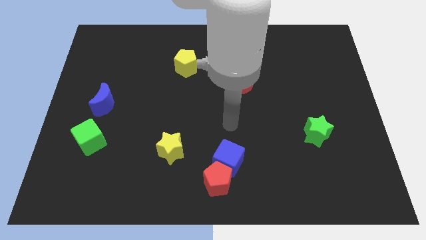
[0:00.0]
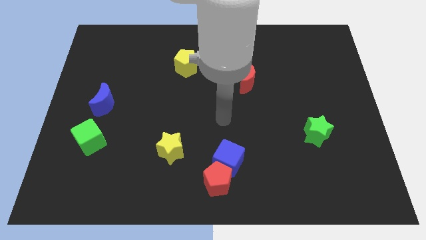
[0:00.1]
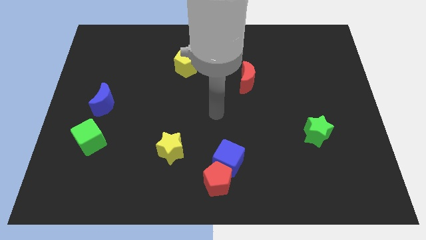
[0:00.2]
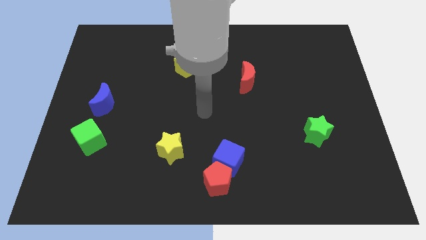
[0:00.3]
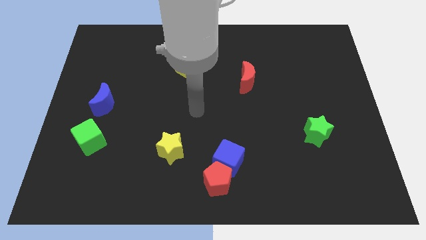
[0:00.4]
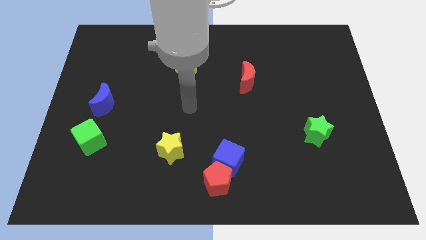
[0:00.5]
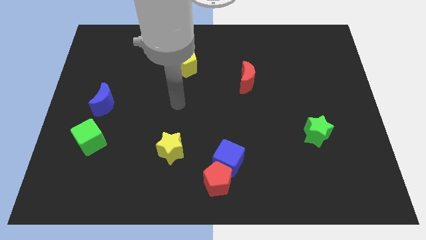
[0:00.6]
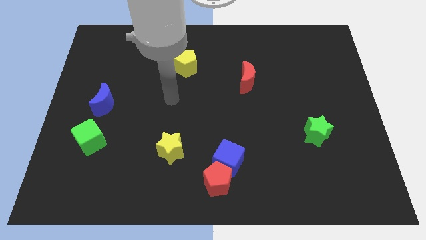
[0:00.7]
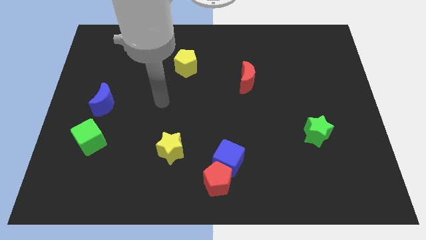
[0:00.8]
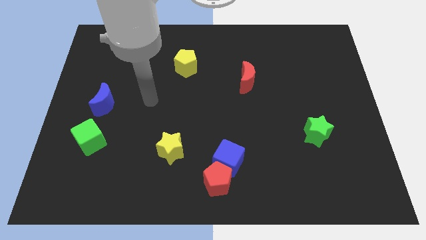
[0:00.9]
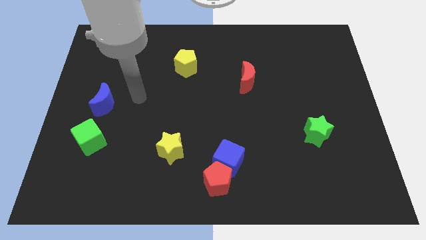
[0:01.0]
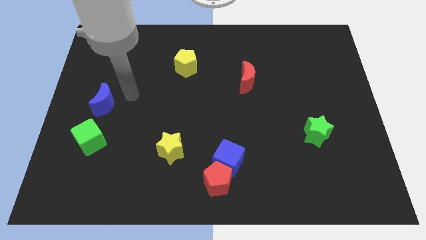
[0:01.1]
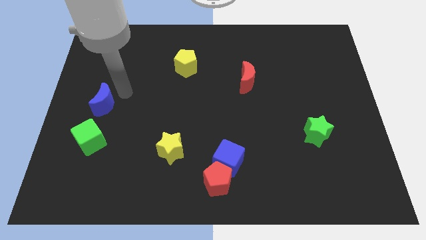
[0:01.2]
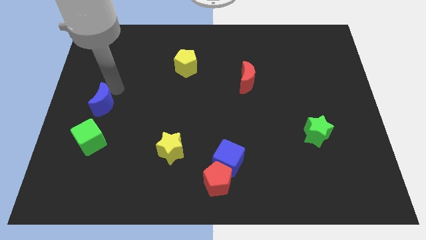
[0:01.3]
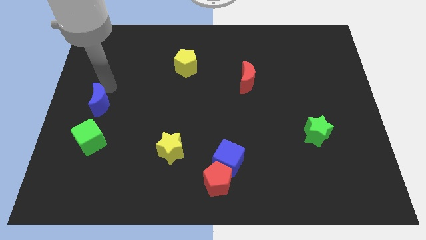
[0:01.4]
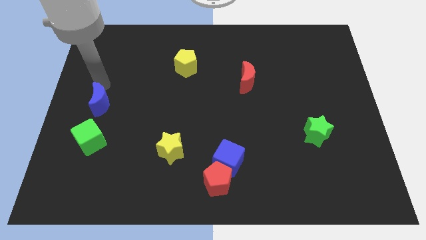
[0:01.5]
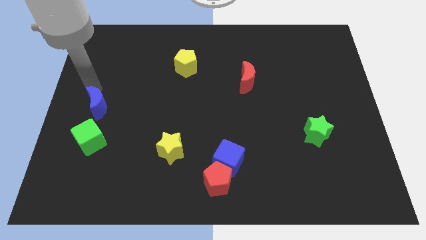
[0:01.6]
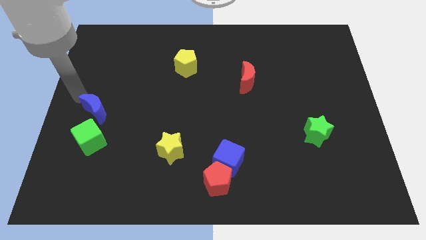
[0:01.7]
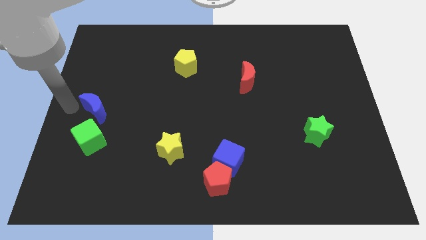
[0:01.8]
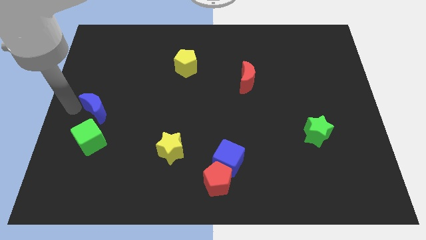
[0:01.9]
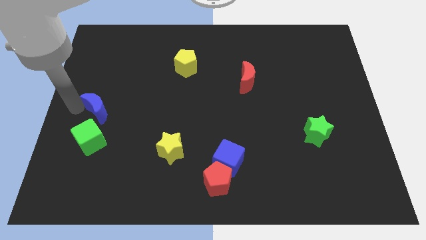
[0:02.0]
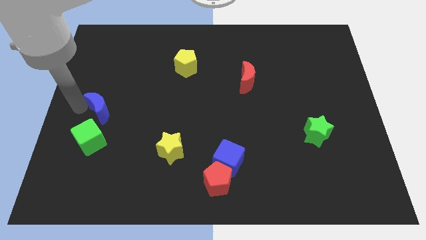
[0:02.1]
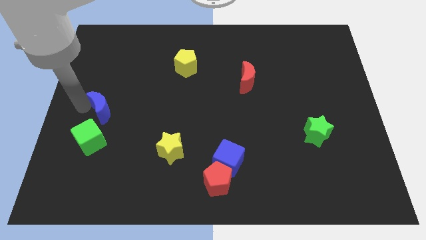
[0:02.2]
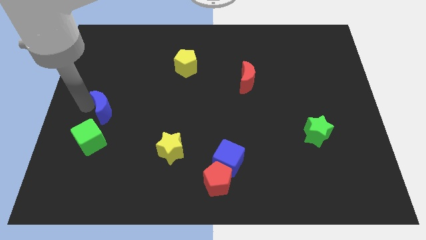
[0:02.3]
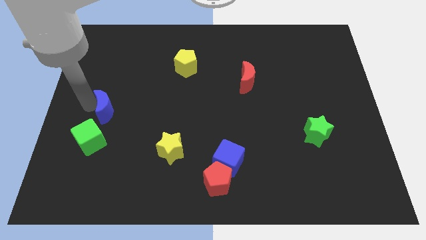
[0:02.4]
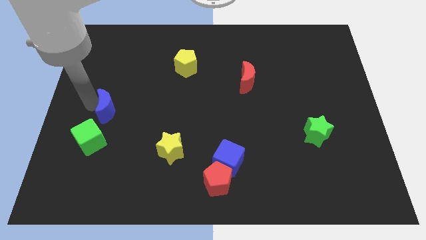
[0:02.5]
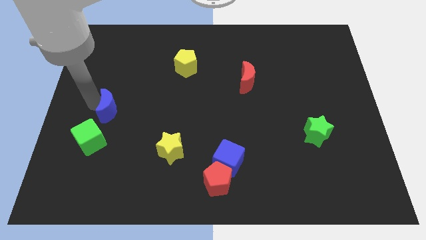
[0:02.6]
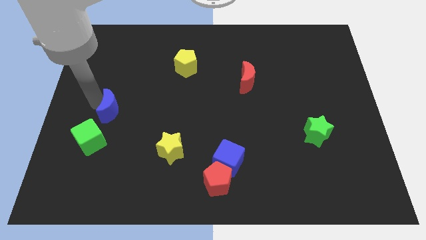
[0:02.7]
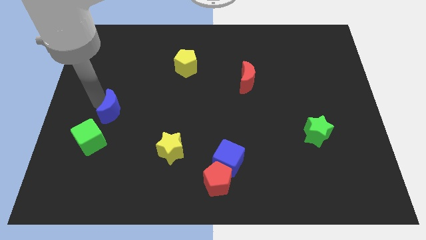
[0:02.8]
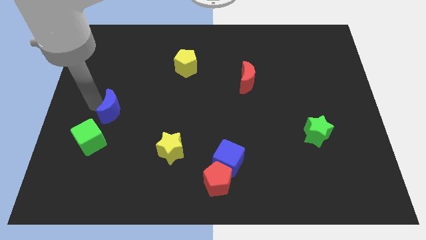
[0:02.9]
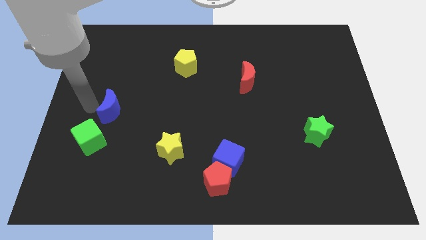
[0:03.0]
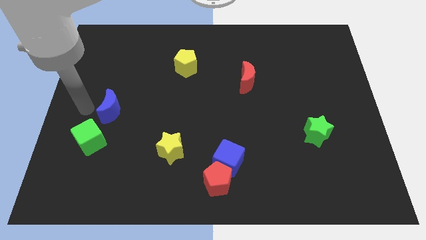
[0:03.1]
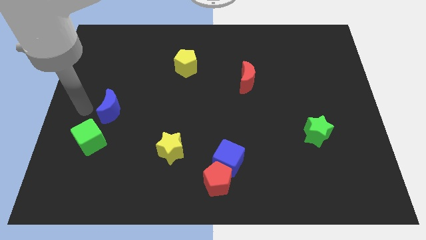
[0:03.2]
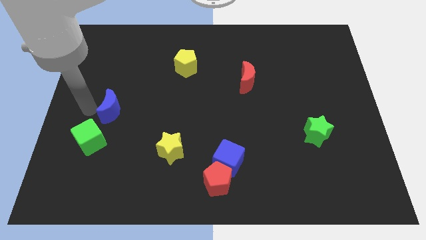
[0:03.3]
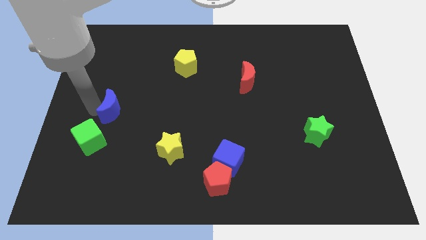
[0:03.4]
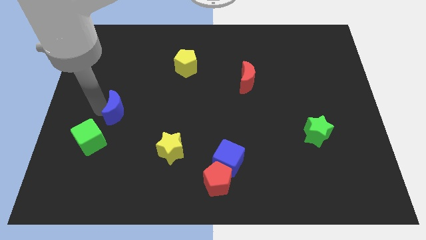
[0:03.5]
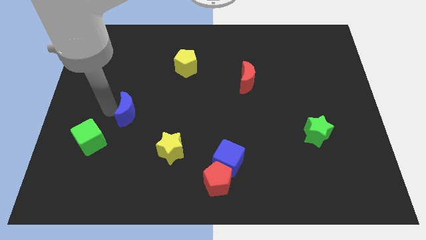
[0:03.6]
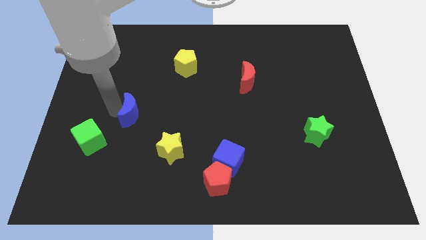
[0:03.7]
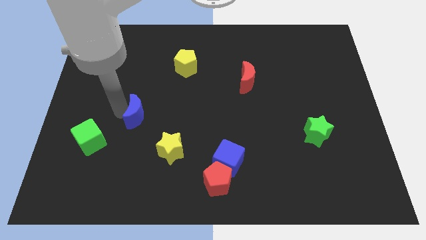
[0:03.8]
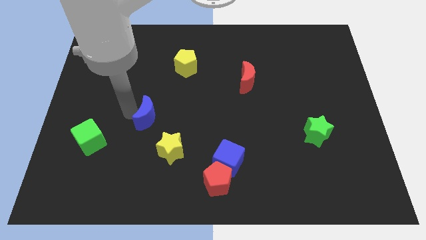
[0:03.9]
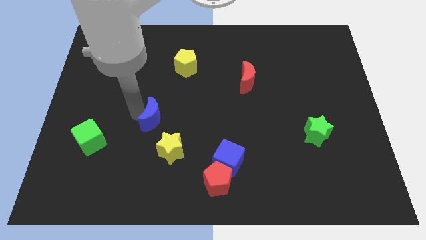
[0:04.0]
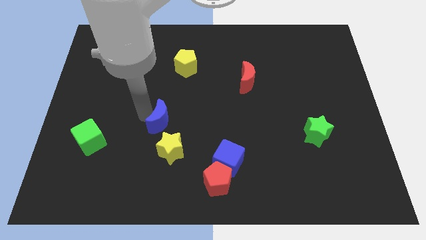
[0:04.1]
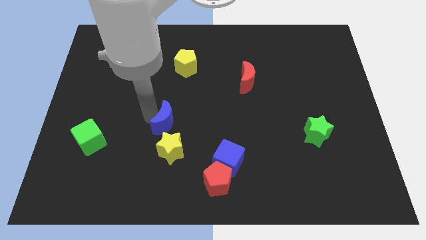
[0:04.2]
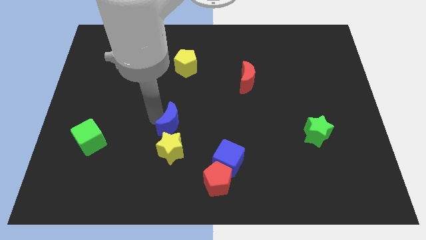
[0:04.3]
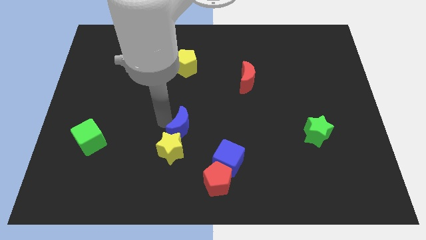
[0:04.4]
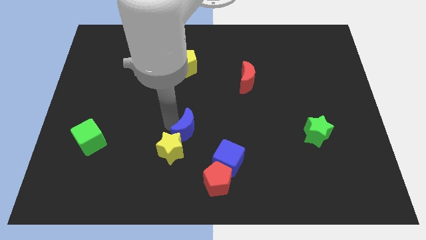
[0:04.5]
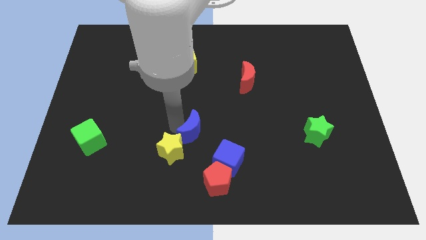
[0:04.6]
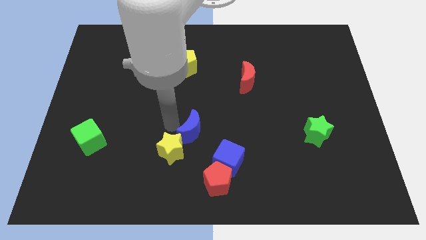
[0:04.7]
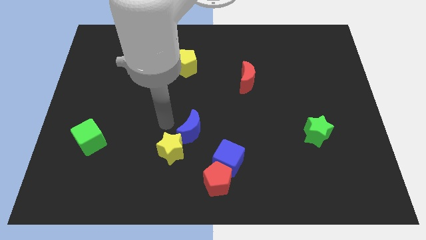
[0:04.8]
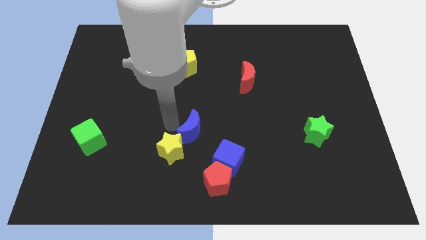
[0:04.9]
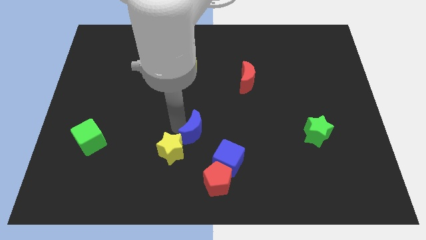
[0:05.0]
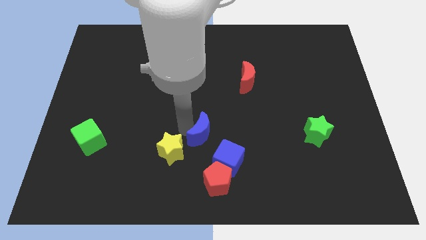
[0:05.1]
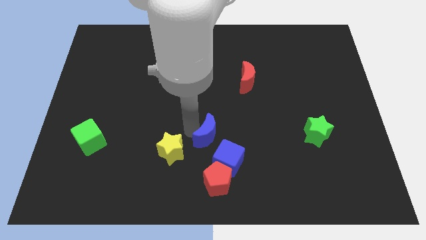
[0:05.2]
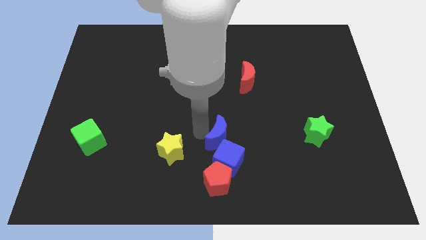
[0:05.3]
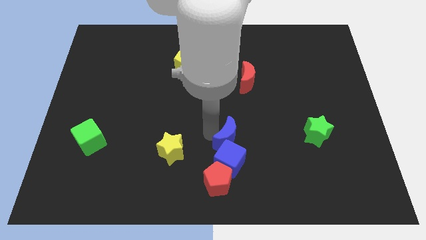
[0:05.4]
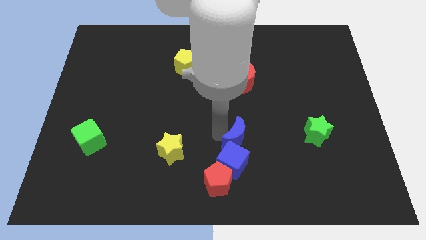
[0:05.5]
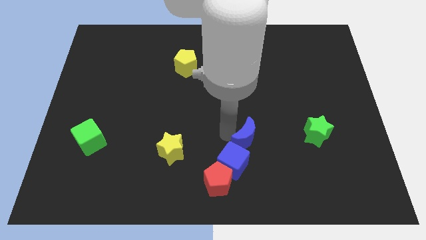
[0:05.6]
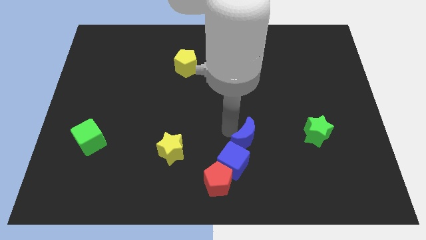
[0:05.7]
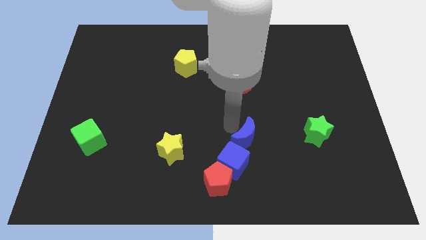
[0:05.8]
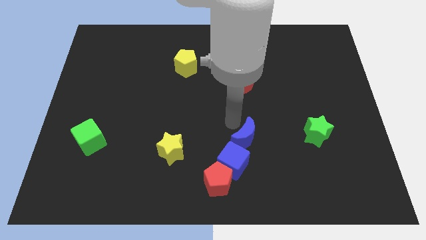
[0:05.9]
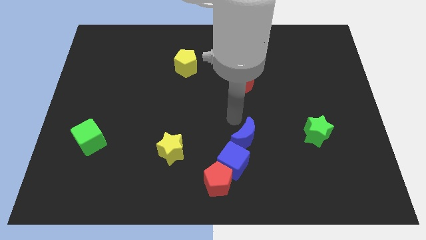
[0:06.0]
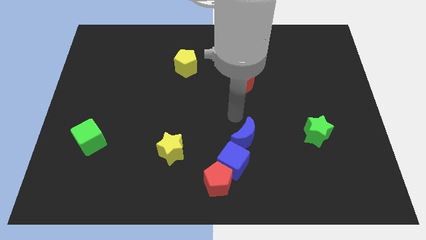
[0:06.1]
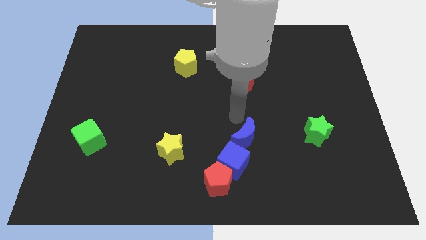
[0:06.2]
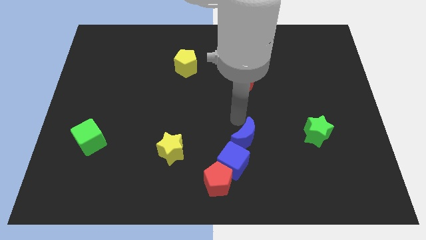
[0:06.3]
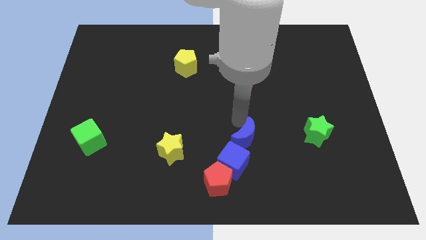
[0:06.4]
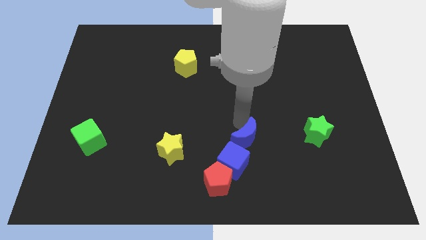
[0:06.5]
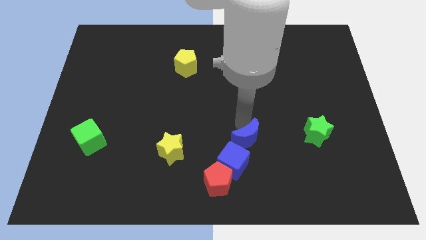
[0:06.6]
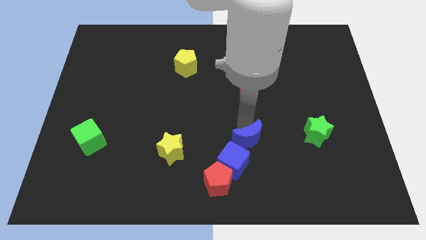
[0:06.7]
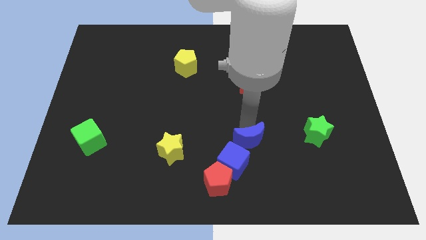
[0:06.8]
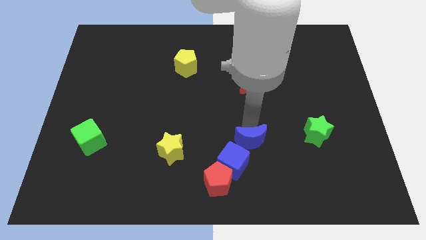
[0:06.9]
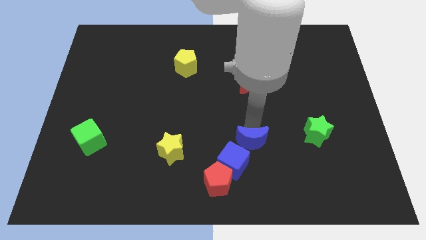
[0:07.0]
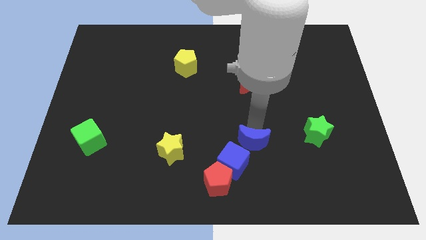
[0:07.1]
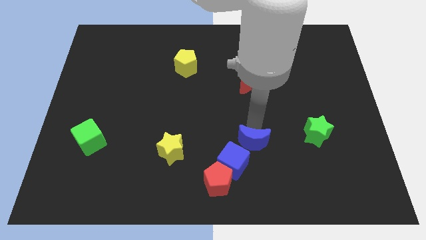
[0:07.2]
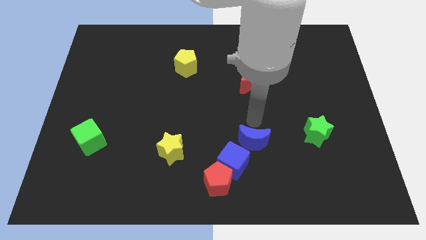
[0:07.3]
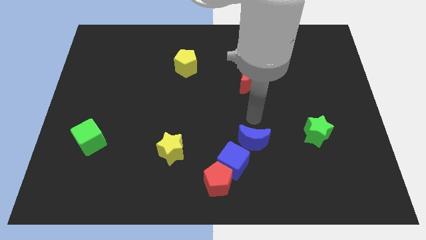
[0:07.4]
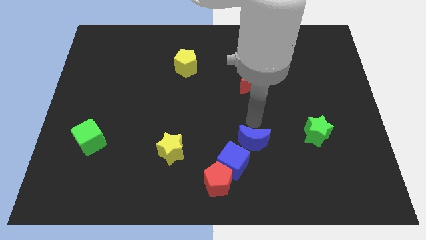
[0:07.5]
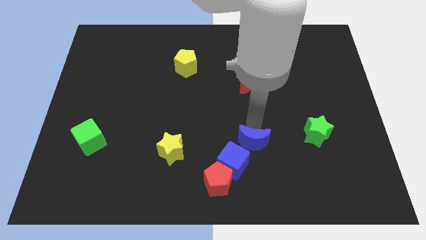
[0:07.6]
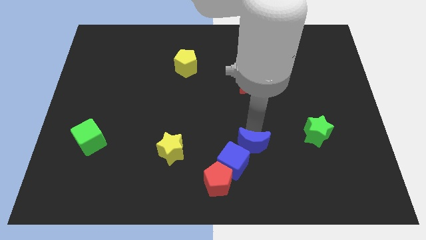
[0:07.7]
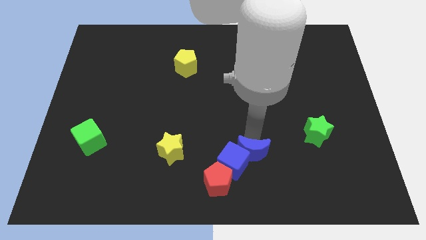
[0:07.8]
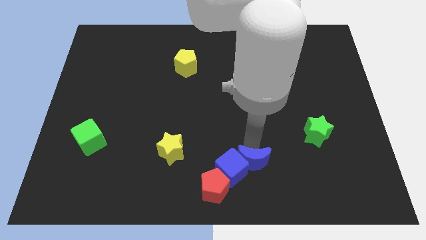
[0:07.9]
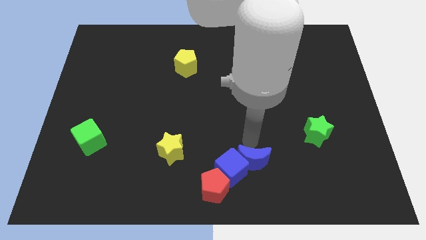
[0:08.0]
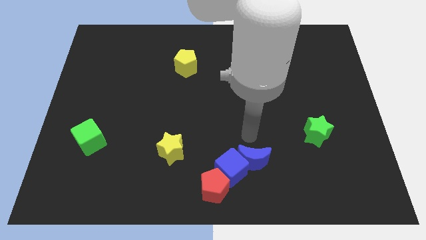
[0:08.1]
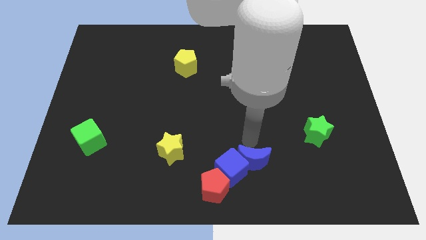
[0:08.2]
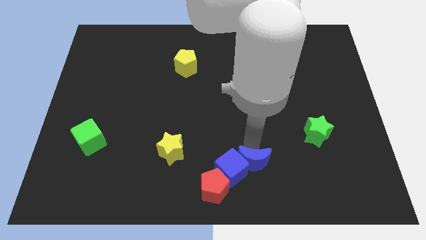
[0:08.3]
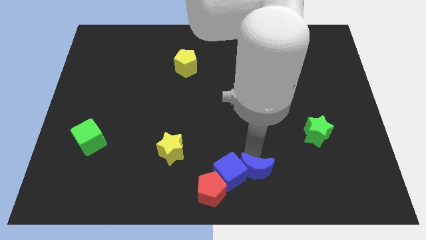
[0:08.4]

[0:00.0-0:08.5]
move the blue moon diagonally down and to the right of the blue cube
